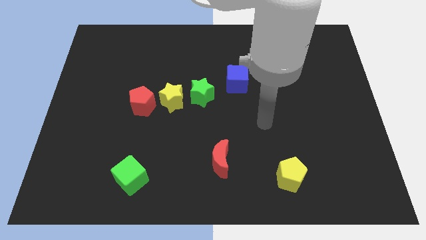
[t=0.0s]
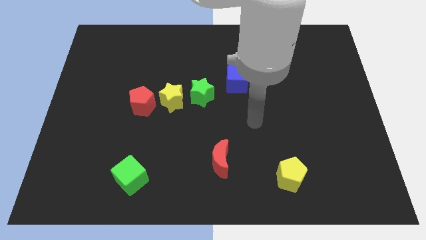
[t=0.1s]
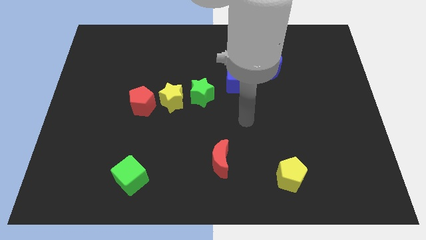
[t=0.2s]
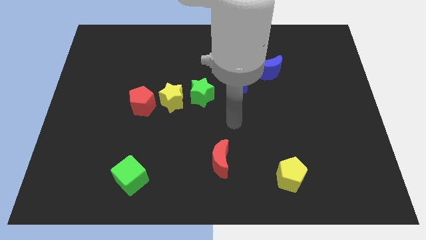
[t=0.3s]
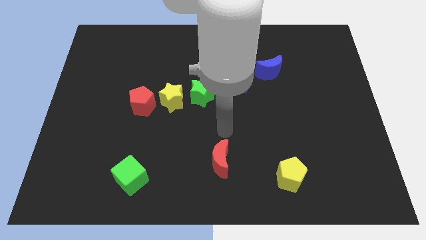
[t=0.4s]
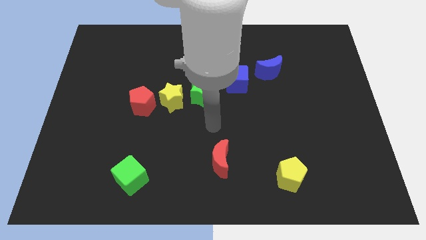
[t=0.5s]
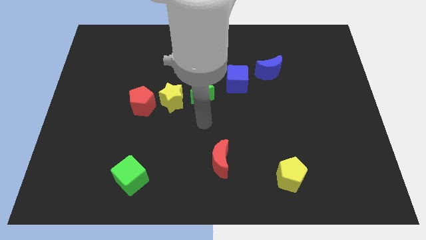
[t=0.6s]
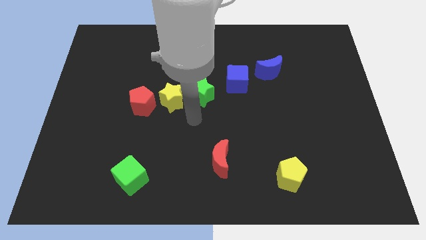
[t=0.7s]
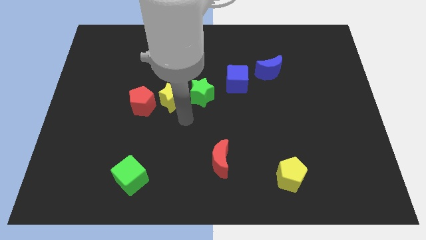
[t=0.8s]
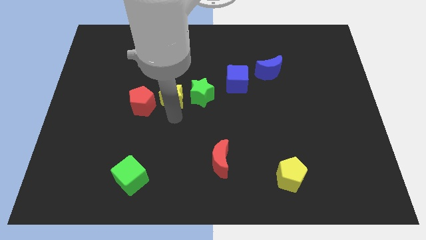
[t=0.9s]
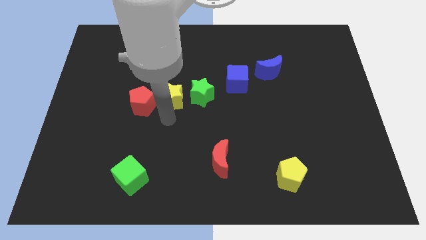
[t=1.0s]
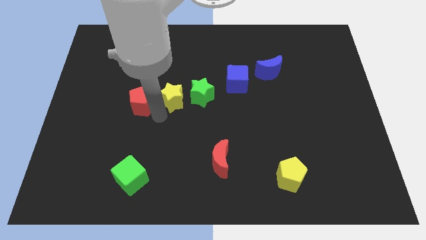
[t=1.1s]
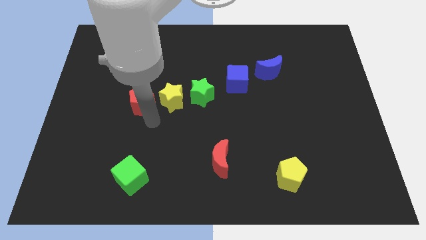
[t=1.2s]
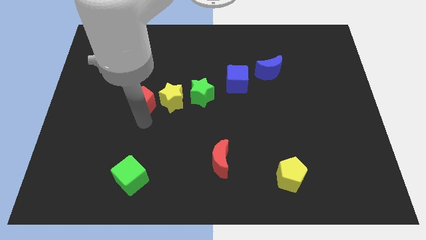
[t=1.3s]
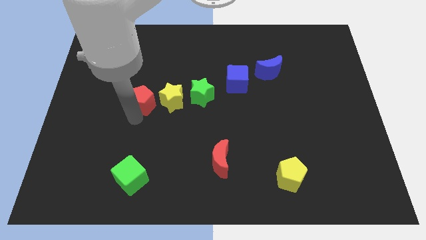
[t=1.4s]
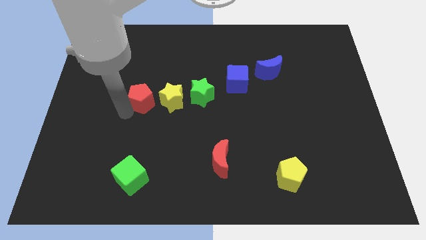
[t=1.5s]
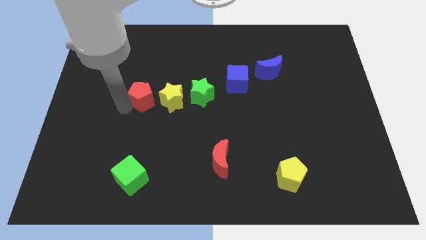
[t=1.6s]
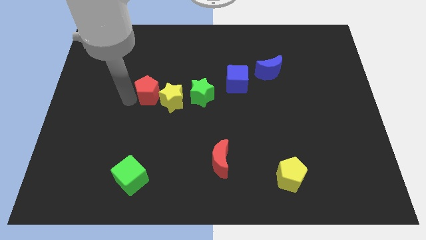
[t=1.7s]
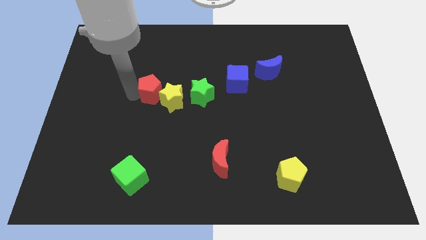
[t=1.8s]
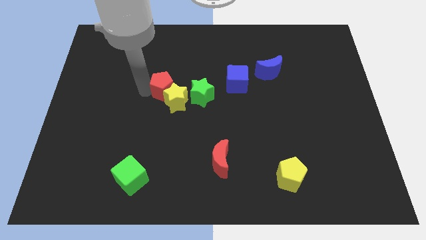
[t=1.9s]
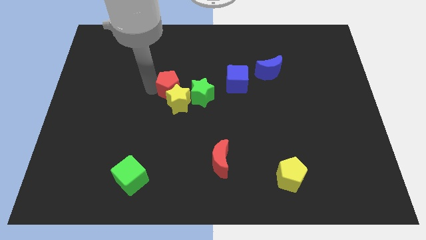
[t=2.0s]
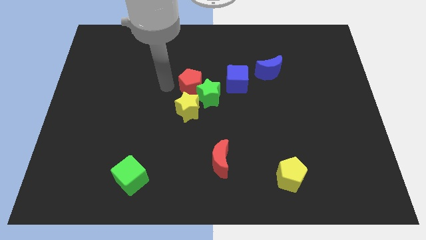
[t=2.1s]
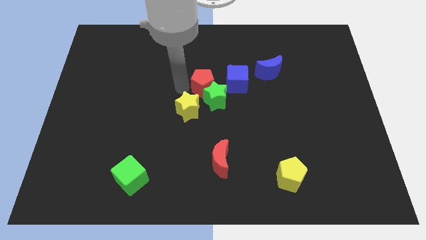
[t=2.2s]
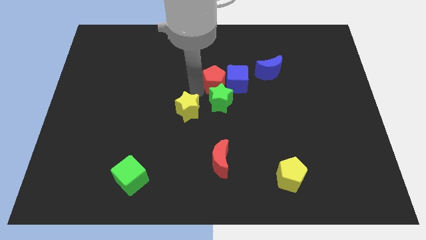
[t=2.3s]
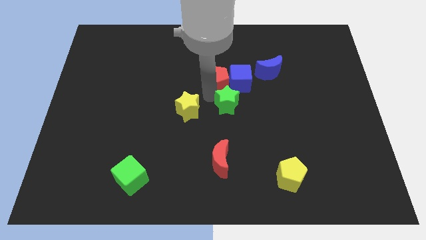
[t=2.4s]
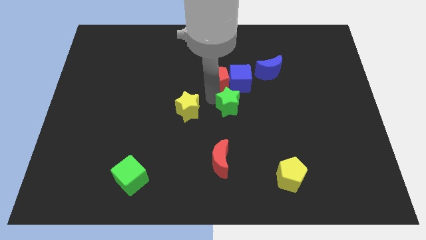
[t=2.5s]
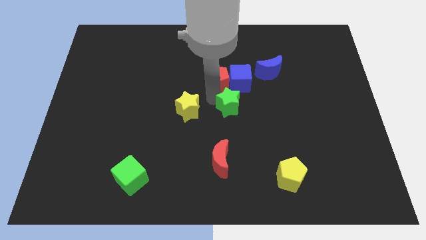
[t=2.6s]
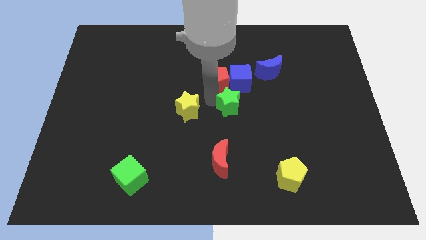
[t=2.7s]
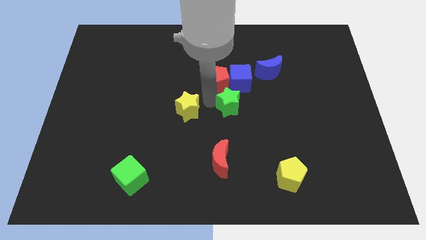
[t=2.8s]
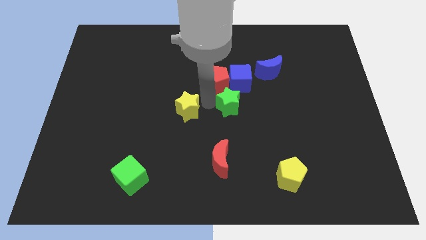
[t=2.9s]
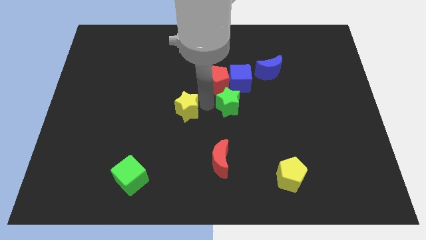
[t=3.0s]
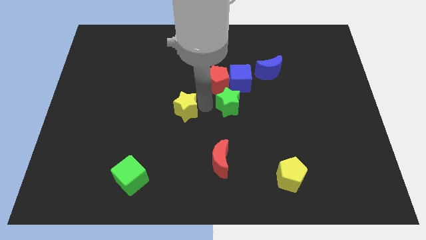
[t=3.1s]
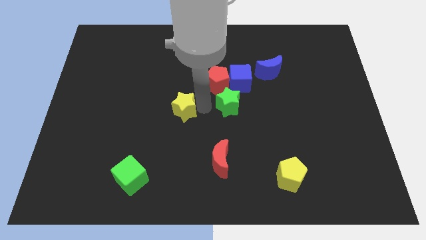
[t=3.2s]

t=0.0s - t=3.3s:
move the yellow star away from the green star and red pentagon

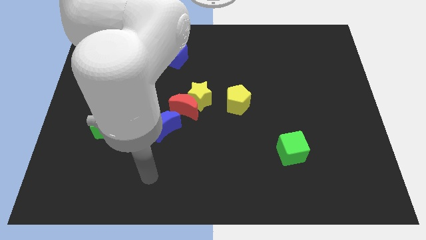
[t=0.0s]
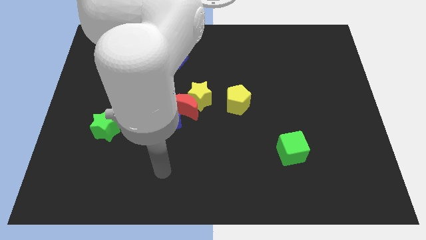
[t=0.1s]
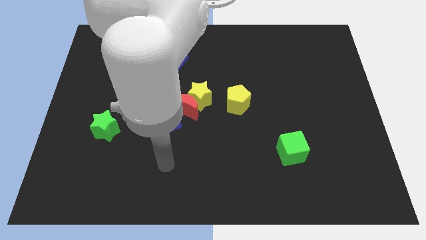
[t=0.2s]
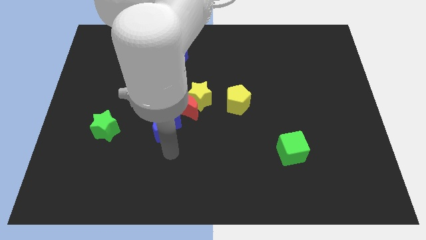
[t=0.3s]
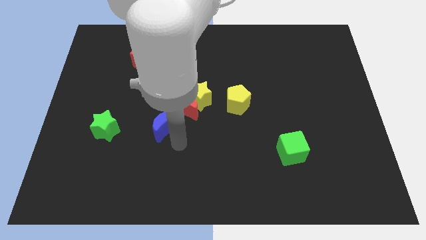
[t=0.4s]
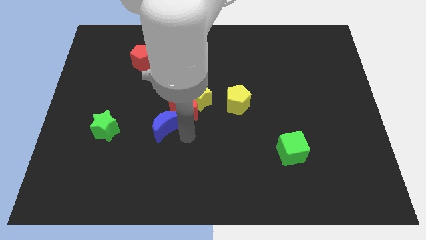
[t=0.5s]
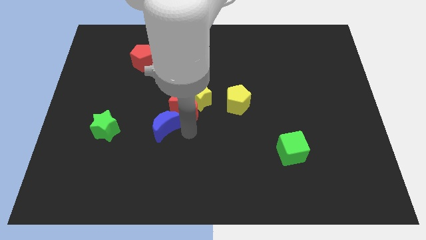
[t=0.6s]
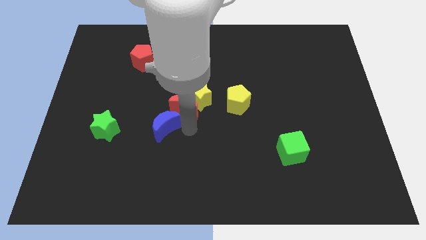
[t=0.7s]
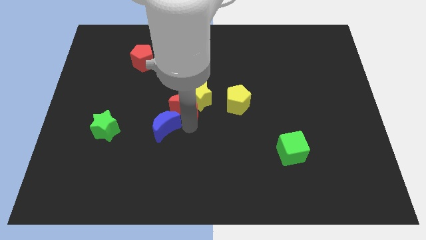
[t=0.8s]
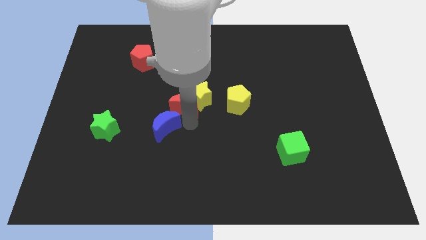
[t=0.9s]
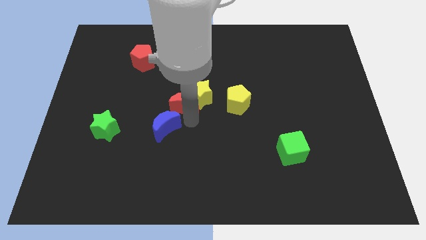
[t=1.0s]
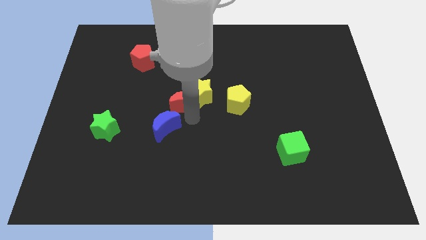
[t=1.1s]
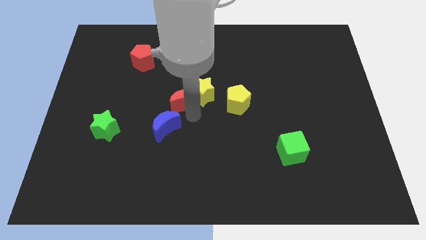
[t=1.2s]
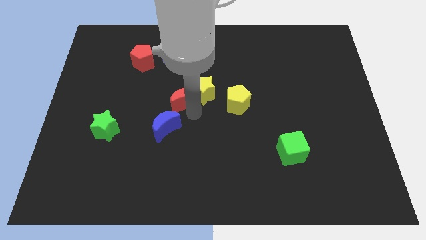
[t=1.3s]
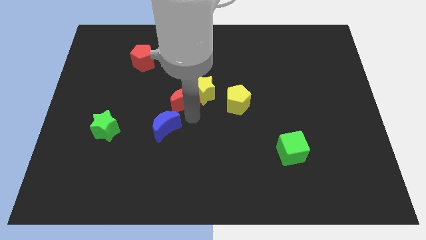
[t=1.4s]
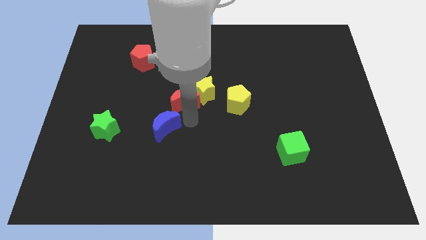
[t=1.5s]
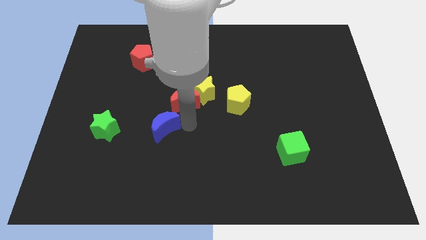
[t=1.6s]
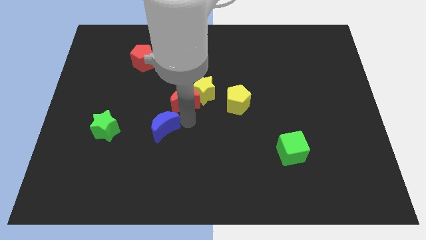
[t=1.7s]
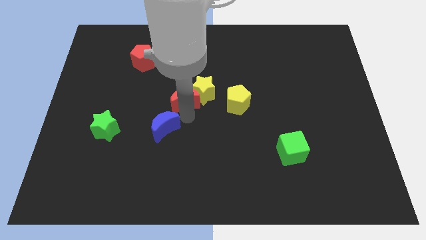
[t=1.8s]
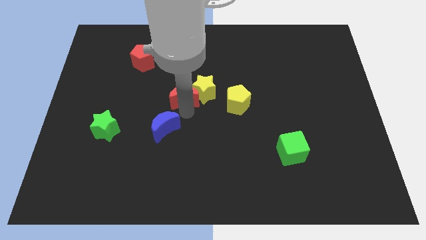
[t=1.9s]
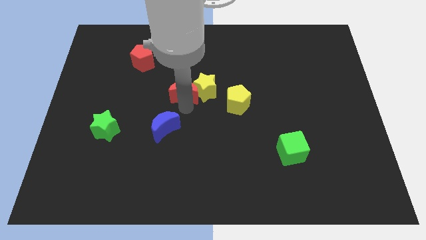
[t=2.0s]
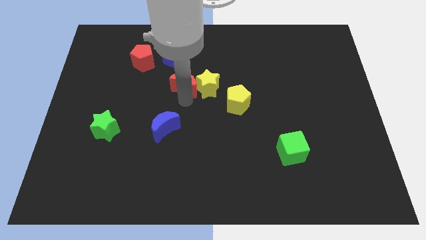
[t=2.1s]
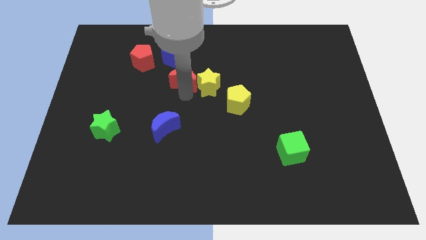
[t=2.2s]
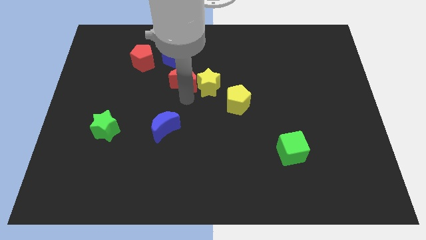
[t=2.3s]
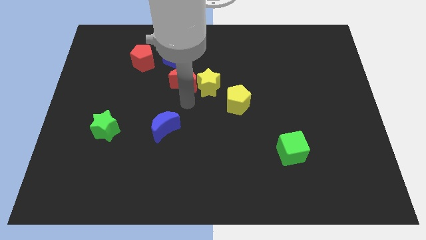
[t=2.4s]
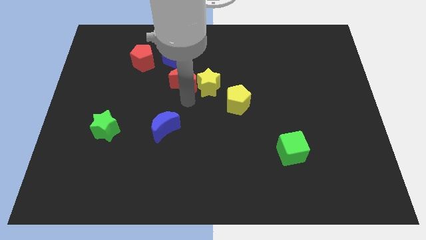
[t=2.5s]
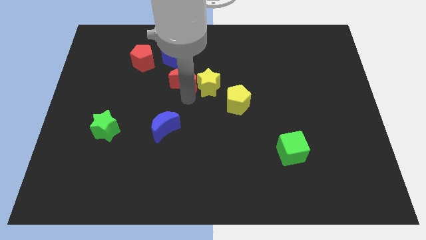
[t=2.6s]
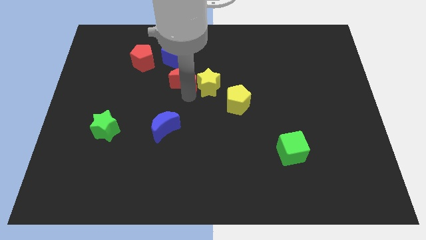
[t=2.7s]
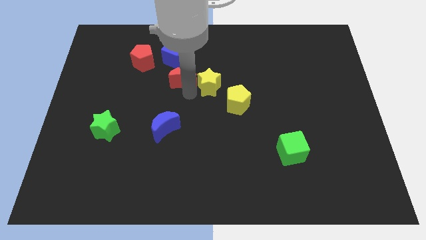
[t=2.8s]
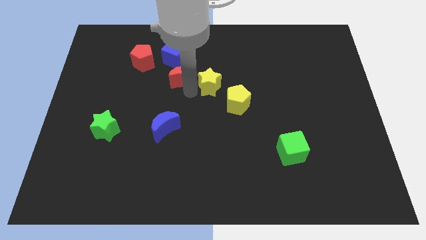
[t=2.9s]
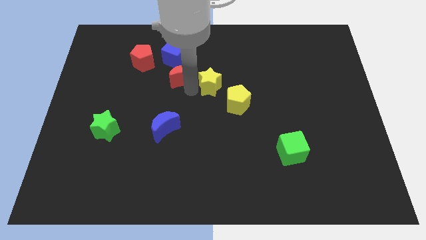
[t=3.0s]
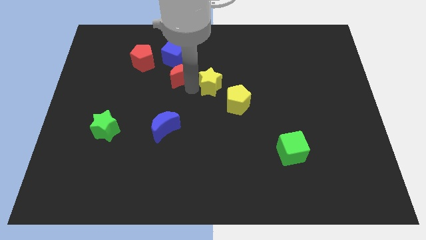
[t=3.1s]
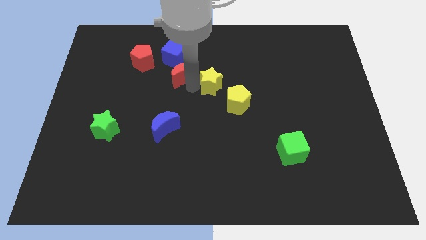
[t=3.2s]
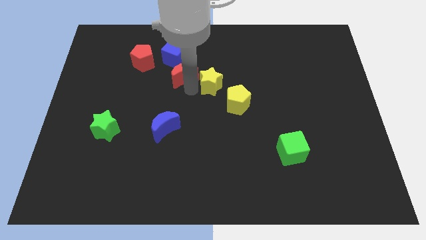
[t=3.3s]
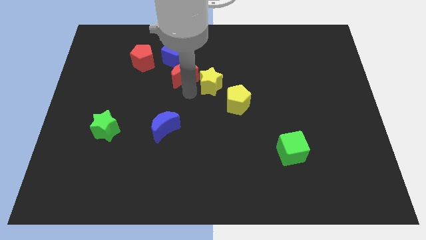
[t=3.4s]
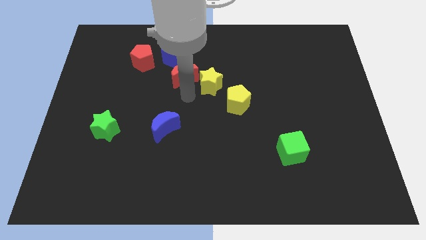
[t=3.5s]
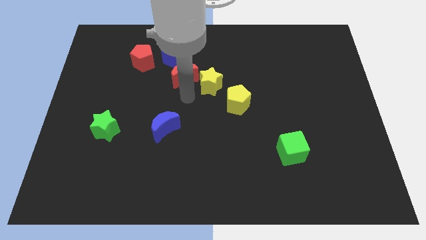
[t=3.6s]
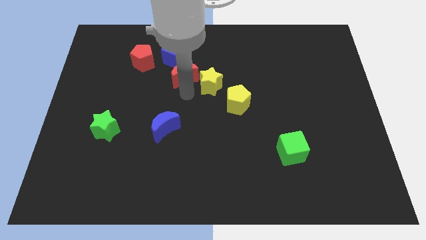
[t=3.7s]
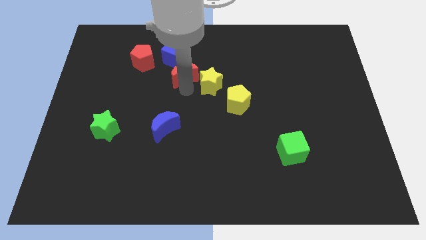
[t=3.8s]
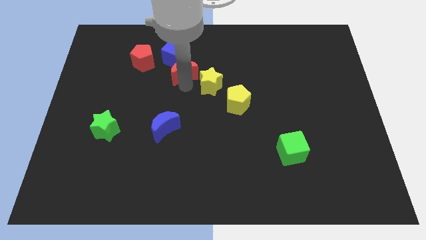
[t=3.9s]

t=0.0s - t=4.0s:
move the red moon away from the yellow star and blue moon

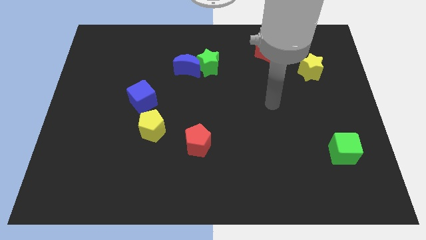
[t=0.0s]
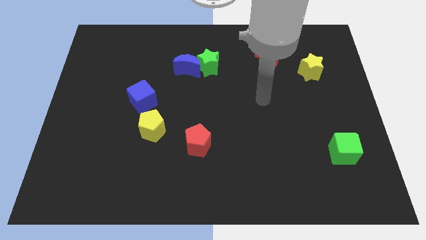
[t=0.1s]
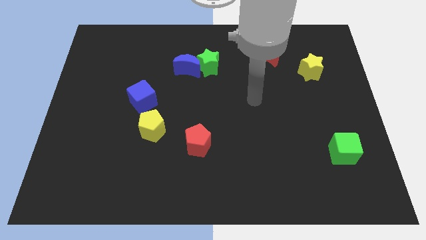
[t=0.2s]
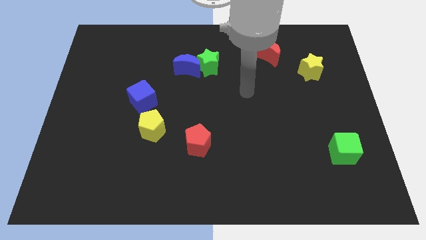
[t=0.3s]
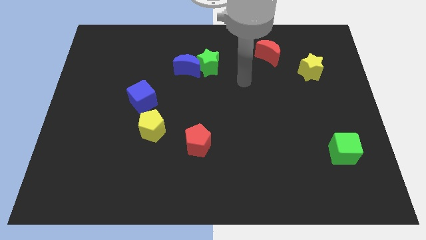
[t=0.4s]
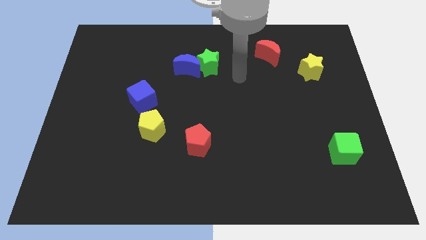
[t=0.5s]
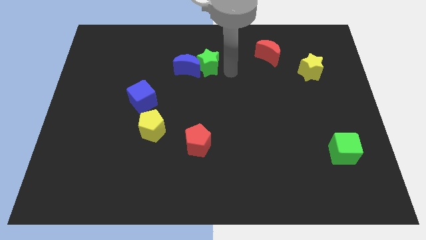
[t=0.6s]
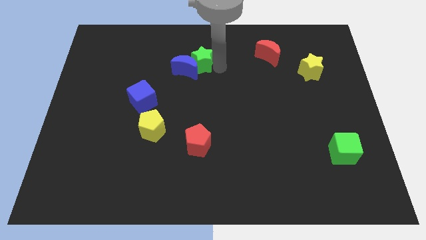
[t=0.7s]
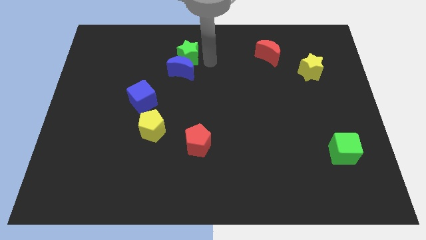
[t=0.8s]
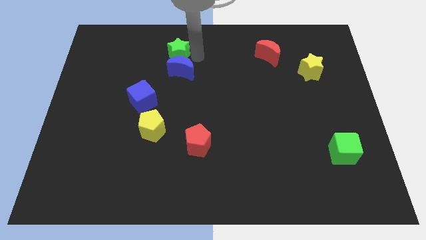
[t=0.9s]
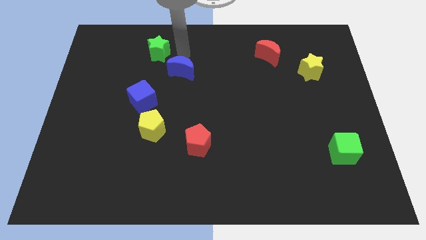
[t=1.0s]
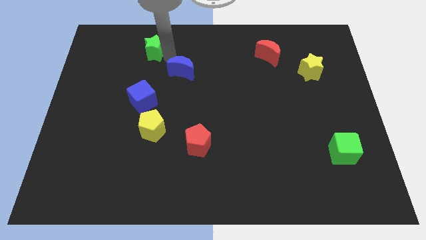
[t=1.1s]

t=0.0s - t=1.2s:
separate the blue moon from the green star

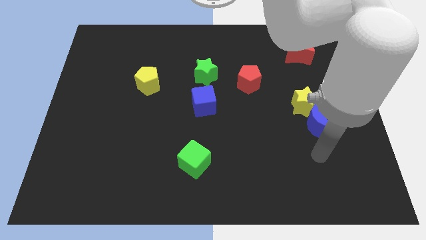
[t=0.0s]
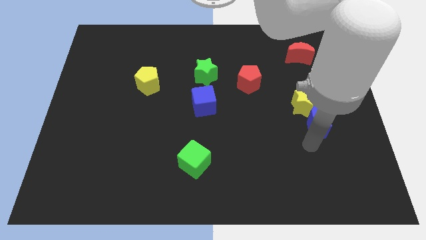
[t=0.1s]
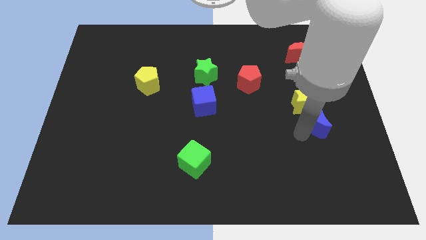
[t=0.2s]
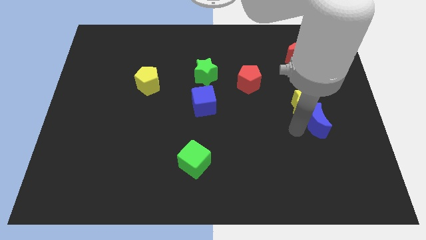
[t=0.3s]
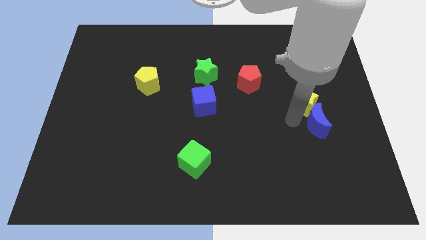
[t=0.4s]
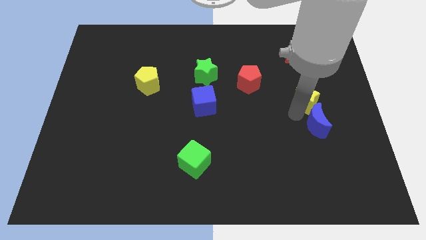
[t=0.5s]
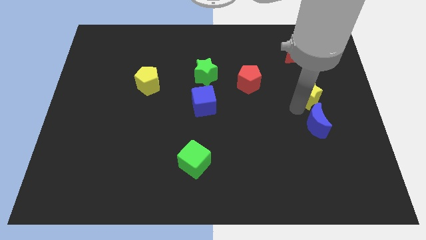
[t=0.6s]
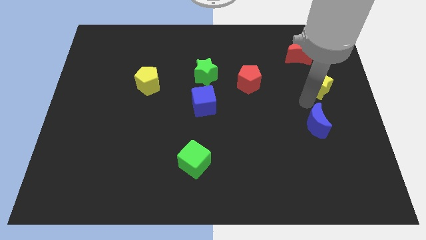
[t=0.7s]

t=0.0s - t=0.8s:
move the blue moon away from the yellow star

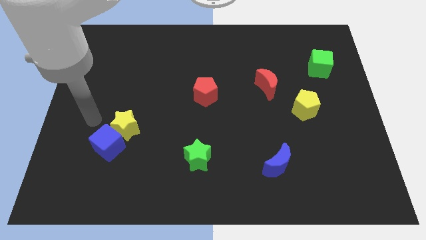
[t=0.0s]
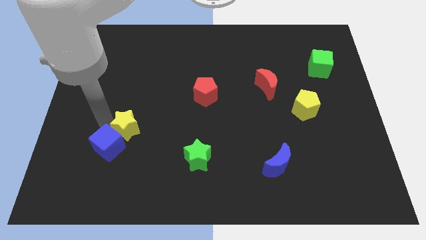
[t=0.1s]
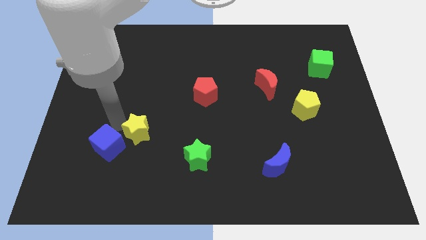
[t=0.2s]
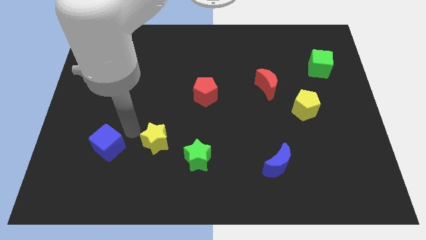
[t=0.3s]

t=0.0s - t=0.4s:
move the blue cube away from the yellow star
